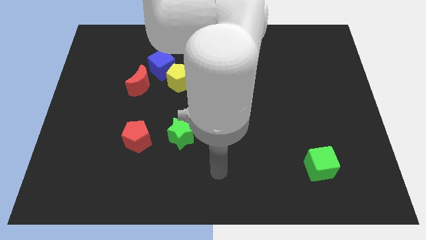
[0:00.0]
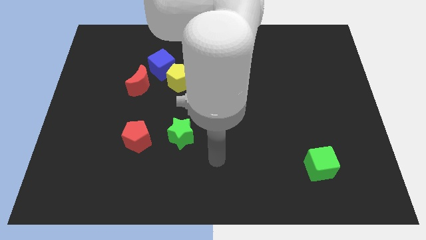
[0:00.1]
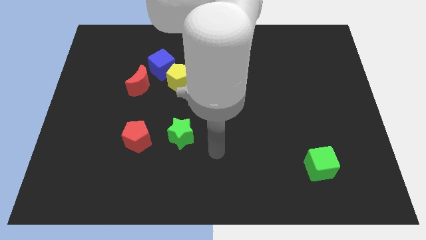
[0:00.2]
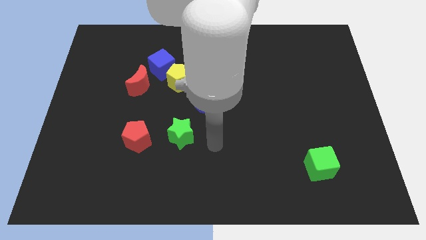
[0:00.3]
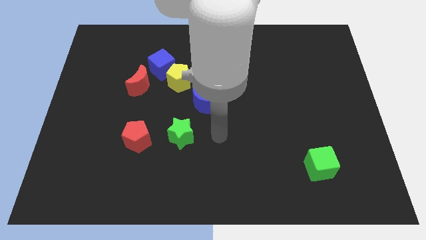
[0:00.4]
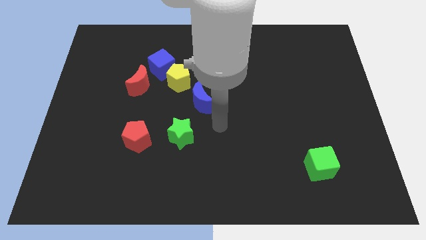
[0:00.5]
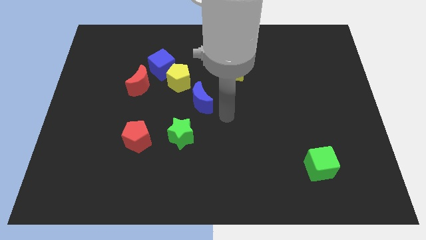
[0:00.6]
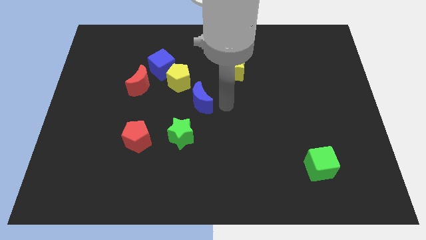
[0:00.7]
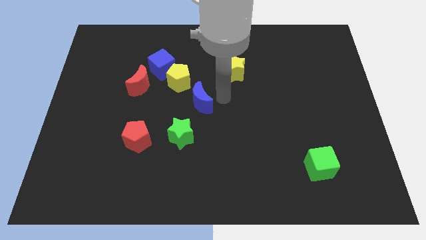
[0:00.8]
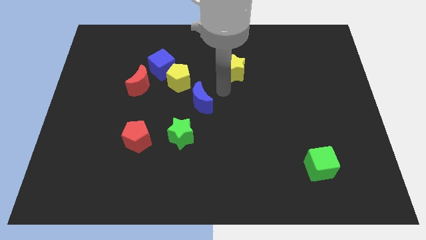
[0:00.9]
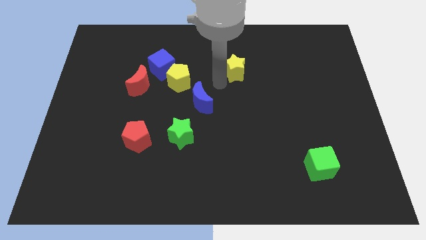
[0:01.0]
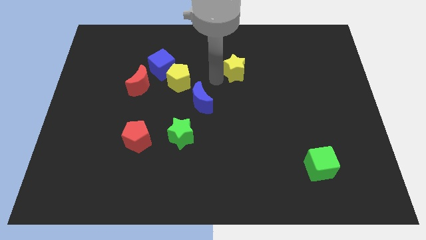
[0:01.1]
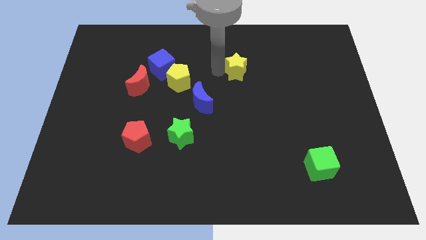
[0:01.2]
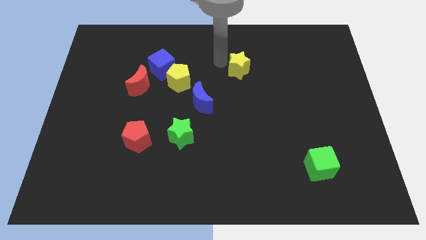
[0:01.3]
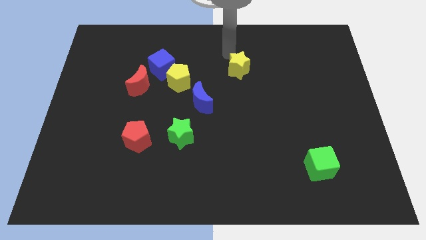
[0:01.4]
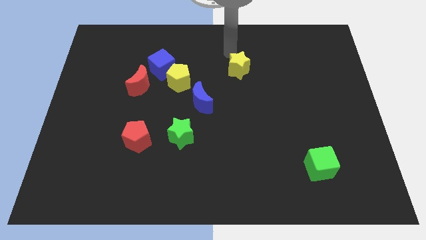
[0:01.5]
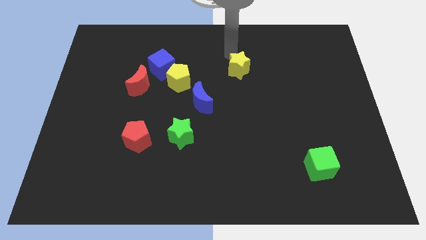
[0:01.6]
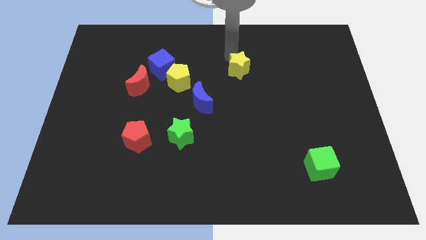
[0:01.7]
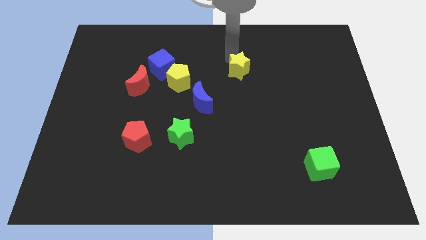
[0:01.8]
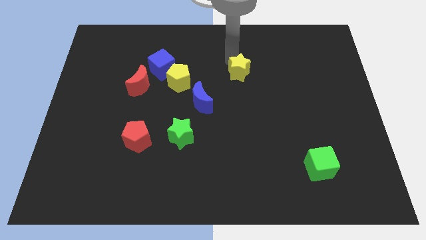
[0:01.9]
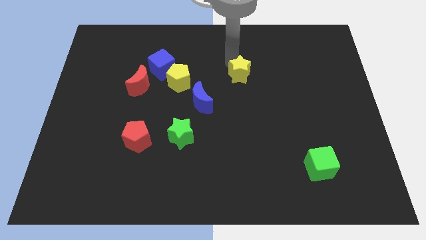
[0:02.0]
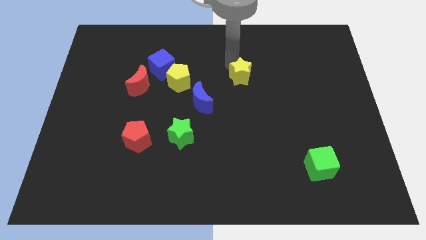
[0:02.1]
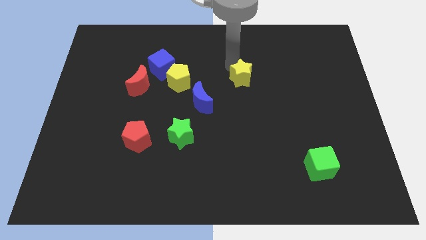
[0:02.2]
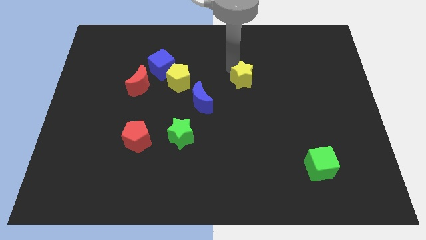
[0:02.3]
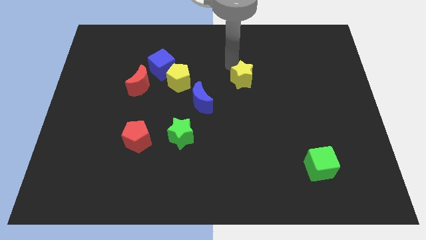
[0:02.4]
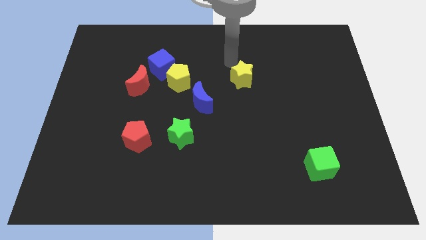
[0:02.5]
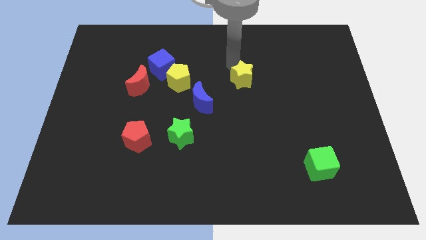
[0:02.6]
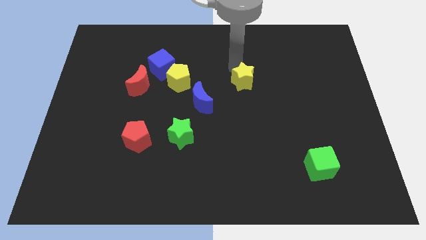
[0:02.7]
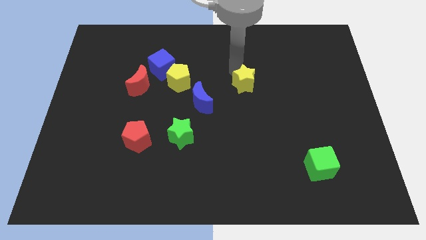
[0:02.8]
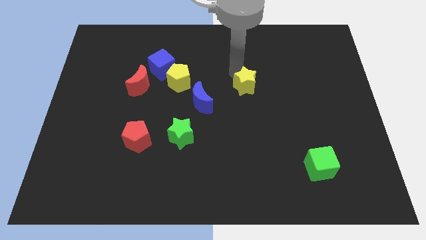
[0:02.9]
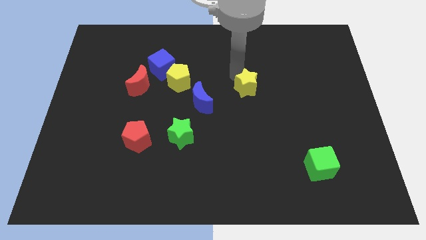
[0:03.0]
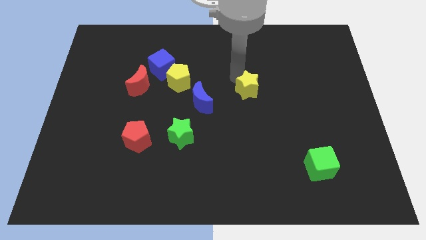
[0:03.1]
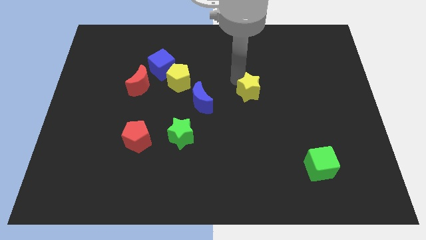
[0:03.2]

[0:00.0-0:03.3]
slide the yellow star a bit diagonally down and to the right

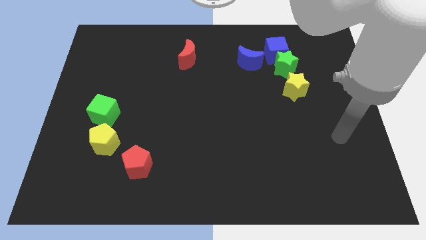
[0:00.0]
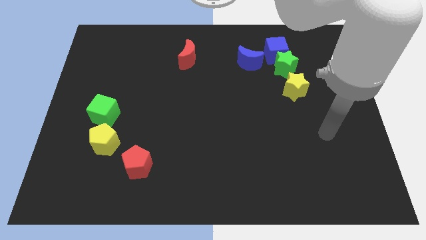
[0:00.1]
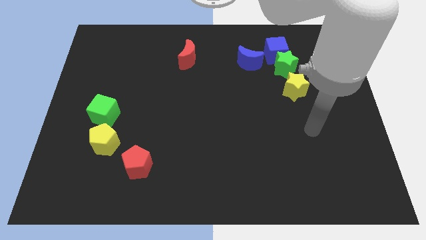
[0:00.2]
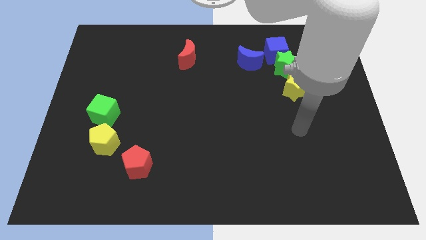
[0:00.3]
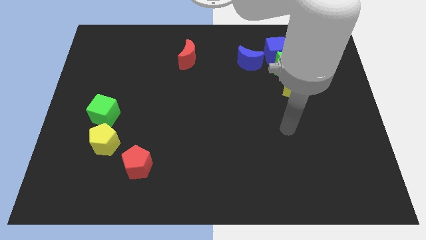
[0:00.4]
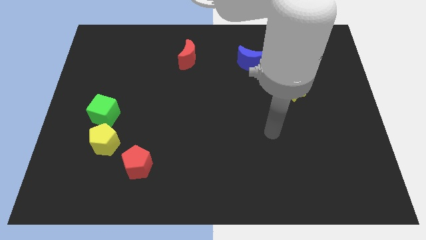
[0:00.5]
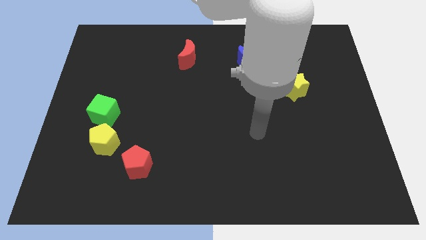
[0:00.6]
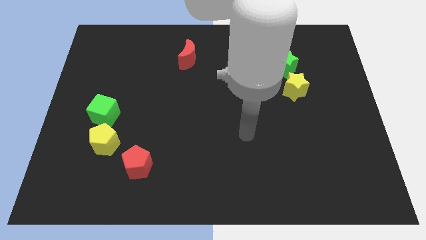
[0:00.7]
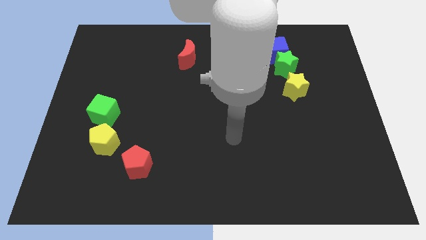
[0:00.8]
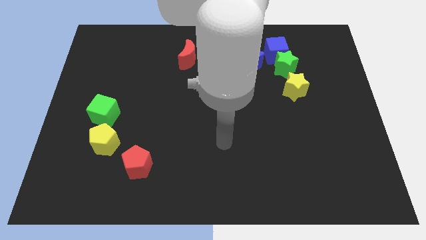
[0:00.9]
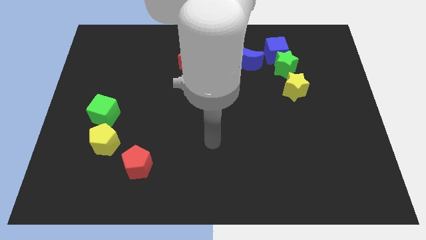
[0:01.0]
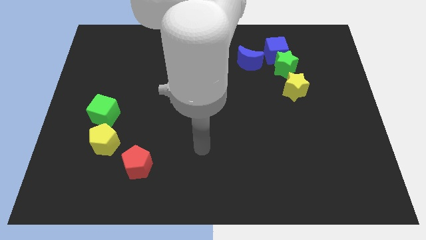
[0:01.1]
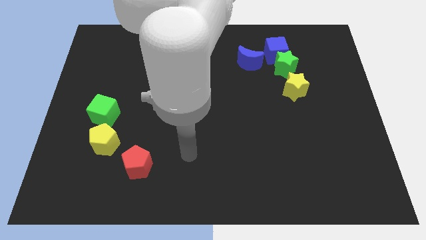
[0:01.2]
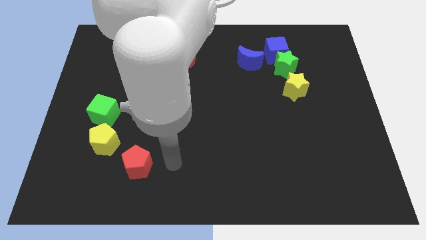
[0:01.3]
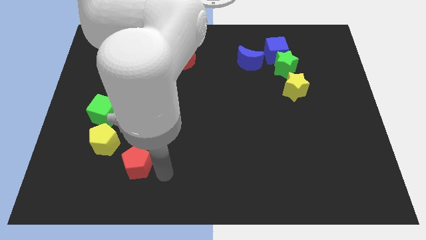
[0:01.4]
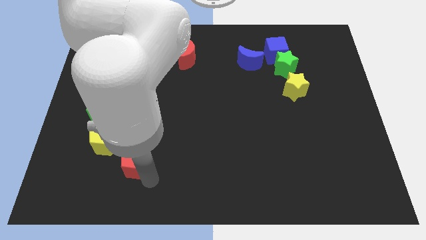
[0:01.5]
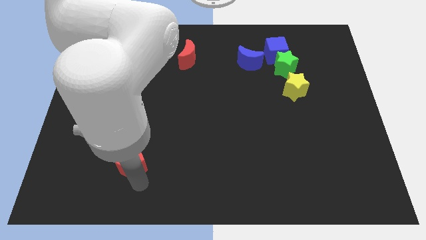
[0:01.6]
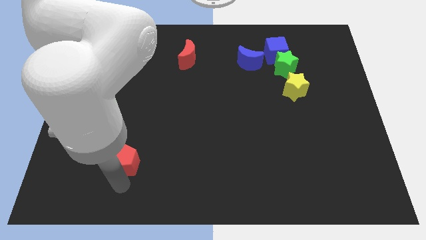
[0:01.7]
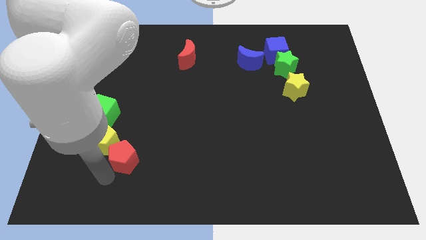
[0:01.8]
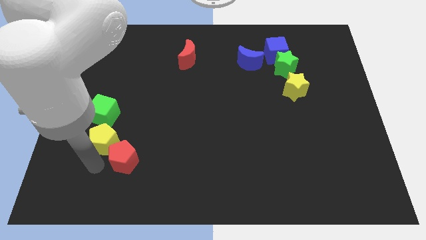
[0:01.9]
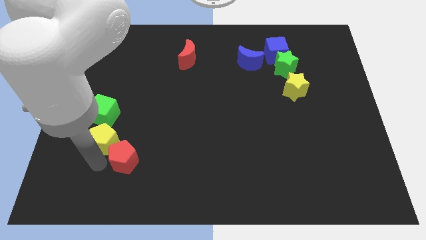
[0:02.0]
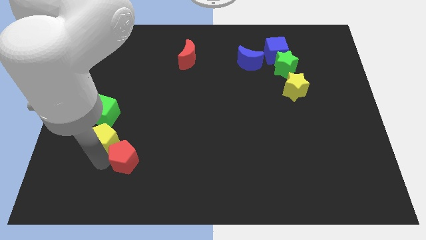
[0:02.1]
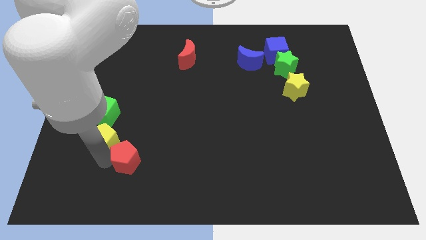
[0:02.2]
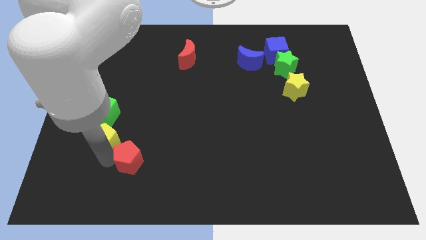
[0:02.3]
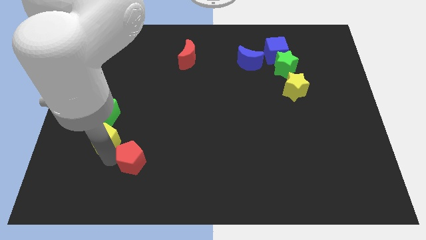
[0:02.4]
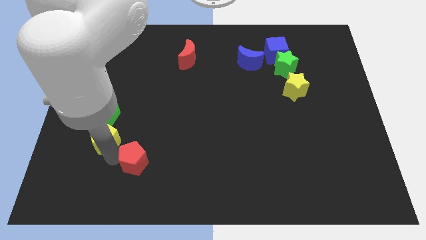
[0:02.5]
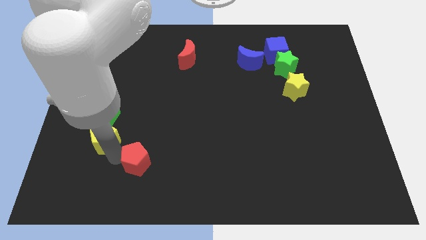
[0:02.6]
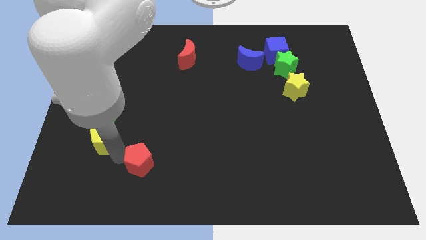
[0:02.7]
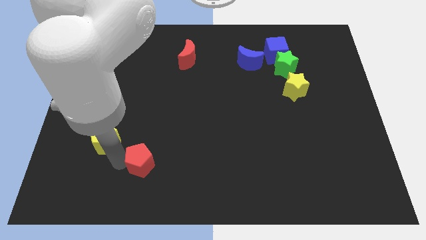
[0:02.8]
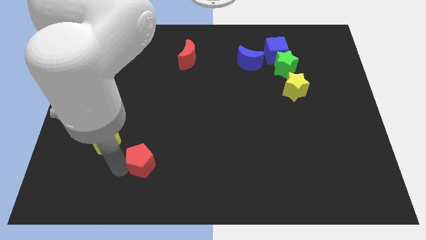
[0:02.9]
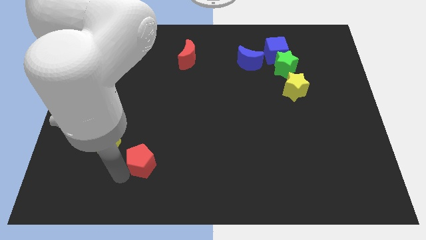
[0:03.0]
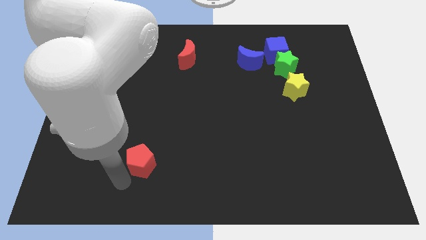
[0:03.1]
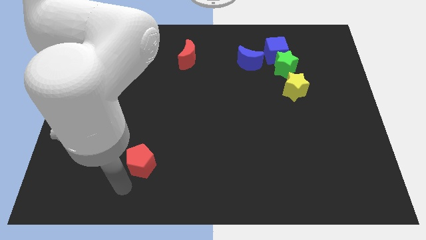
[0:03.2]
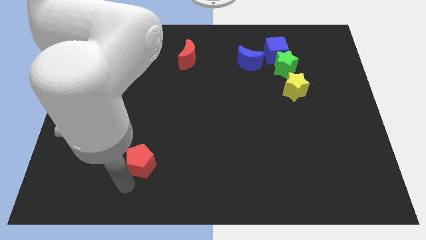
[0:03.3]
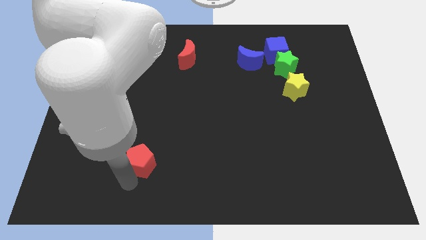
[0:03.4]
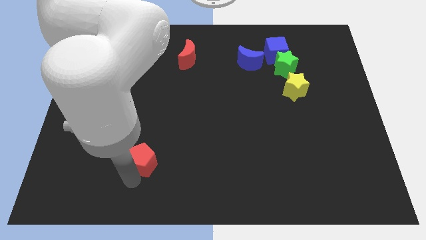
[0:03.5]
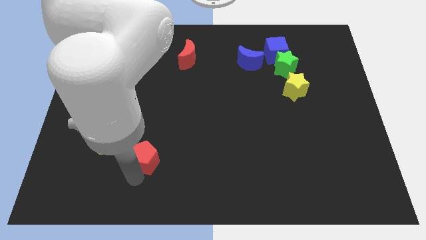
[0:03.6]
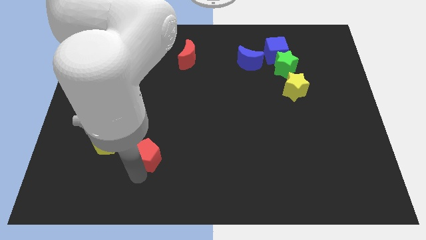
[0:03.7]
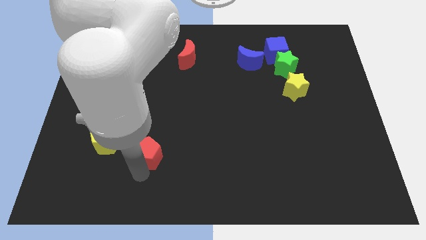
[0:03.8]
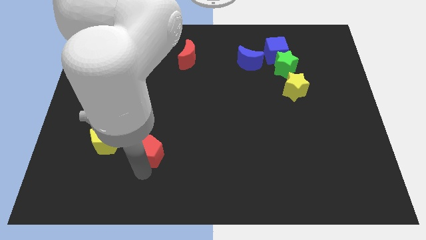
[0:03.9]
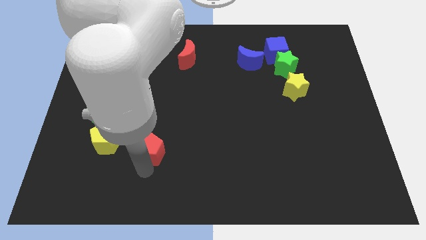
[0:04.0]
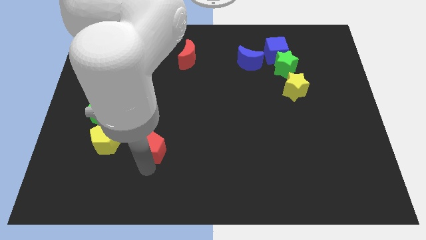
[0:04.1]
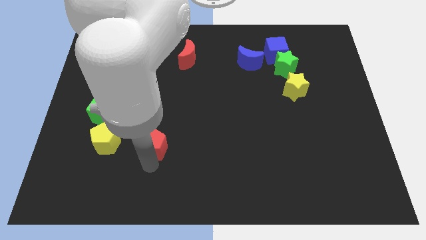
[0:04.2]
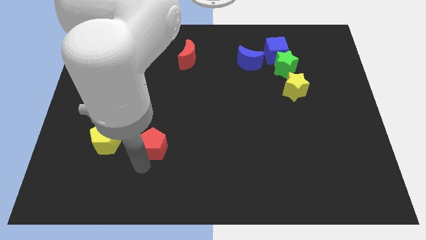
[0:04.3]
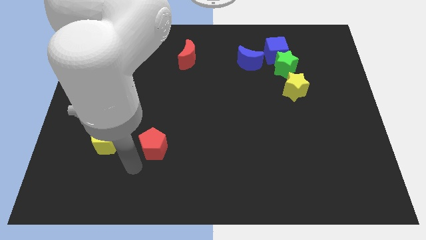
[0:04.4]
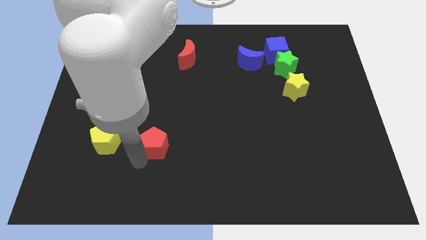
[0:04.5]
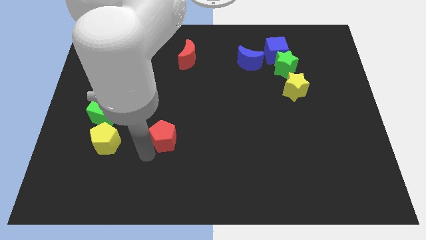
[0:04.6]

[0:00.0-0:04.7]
slightly move the red pentagon upwards and right diagonally

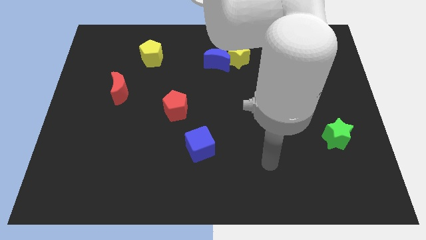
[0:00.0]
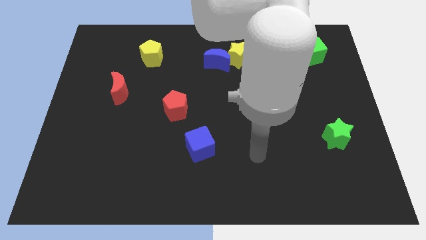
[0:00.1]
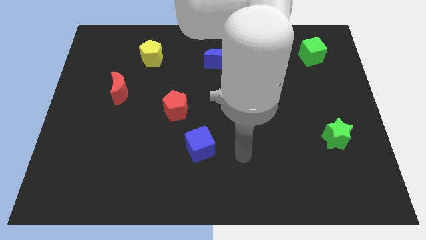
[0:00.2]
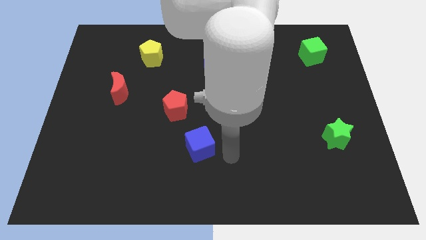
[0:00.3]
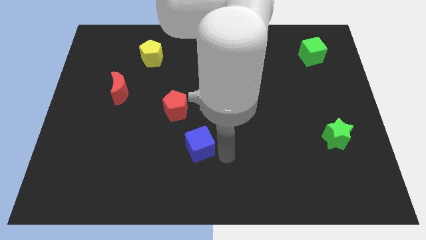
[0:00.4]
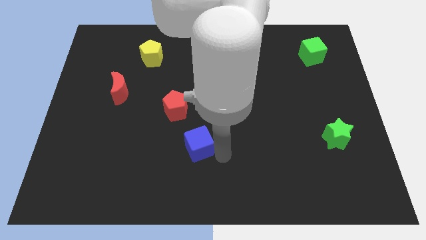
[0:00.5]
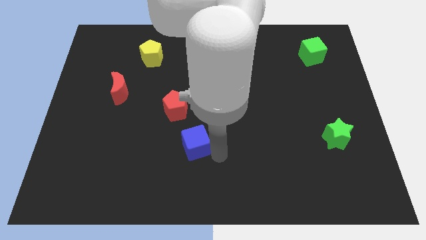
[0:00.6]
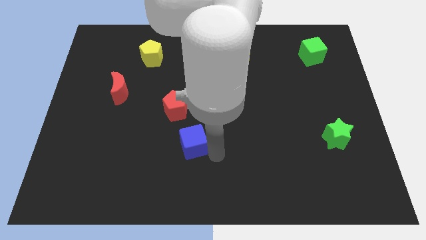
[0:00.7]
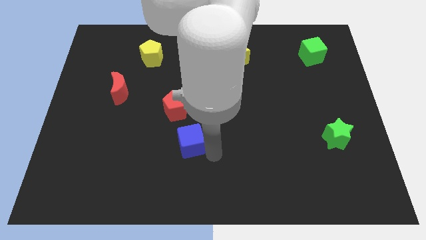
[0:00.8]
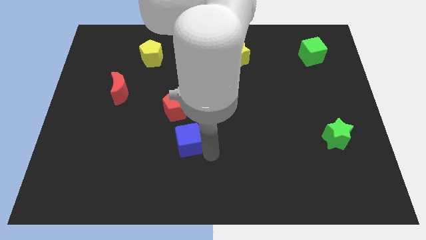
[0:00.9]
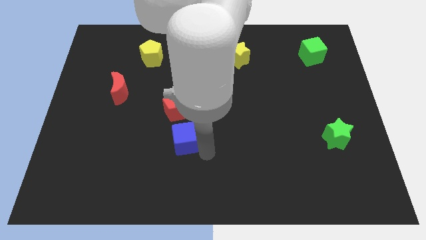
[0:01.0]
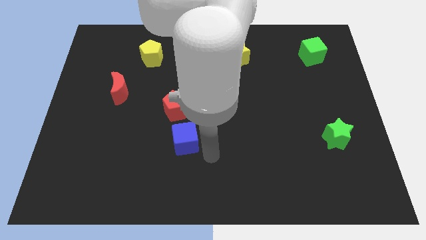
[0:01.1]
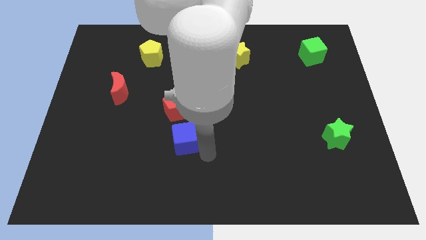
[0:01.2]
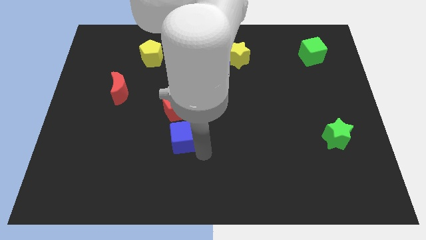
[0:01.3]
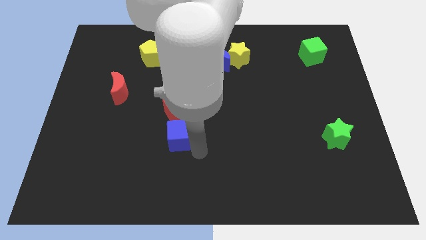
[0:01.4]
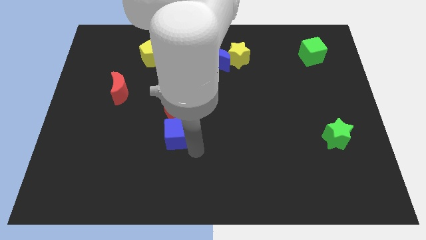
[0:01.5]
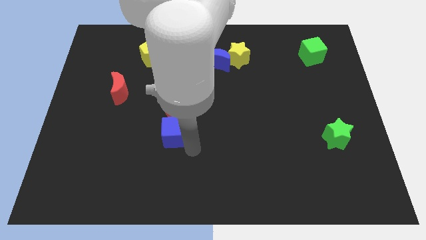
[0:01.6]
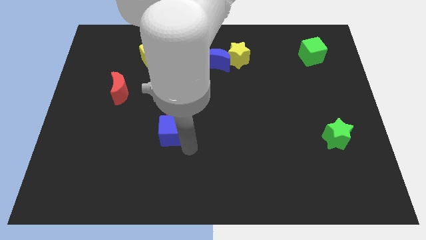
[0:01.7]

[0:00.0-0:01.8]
slightly move the blue cube upwards and left
